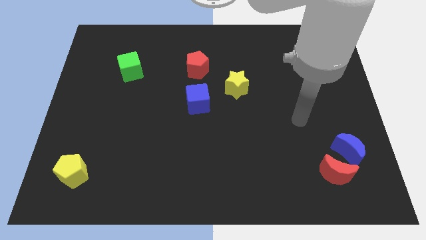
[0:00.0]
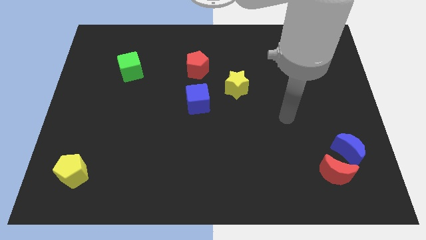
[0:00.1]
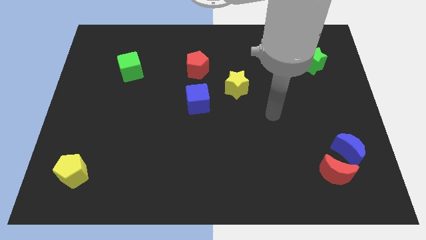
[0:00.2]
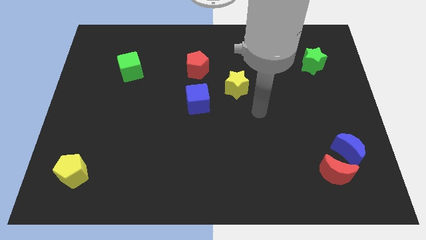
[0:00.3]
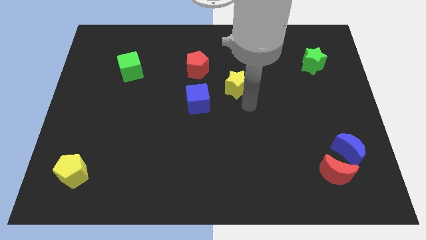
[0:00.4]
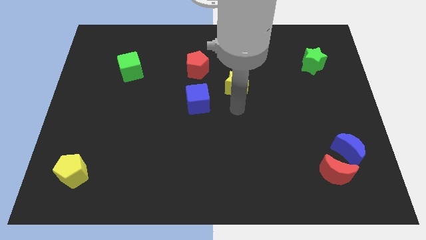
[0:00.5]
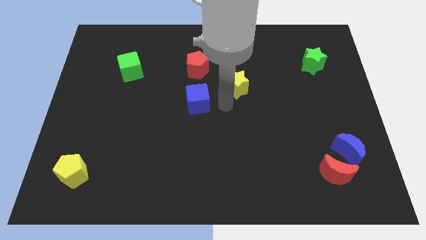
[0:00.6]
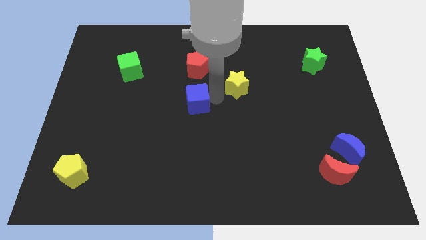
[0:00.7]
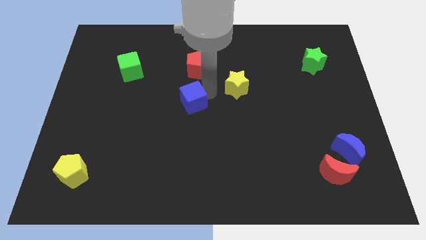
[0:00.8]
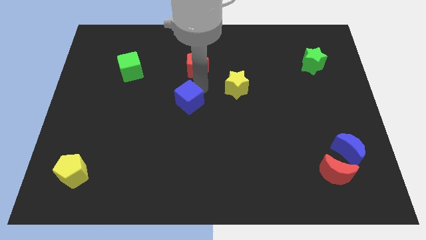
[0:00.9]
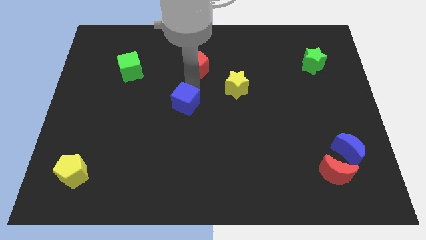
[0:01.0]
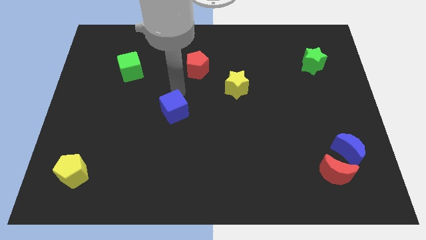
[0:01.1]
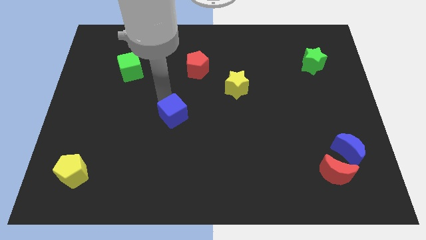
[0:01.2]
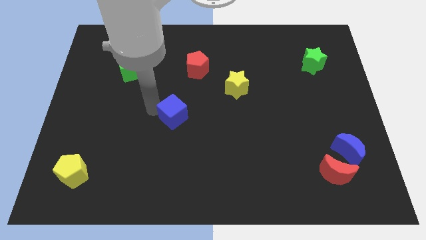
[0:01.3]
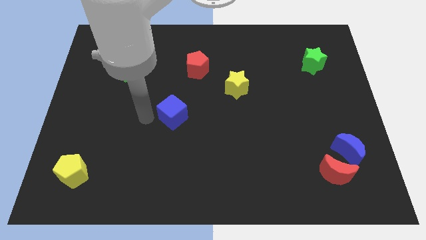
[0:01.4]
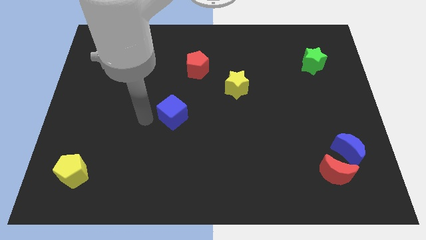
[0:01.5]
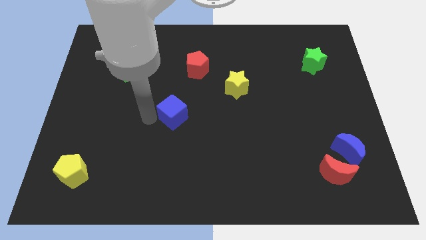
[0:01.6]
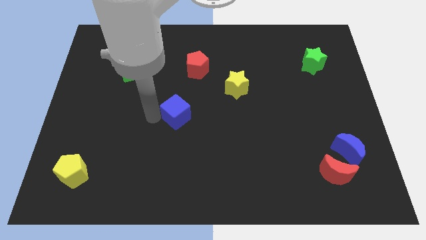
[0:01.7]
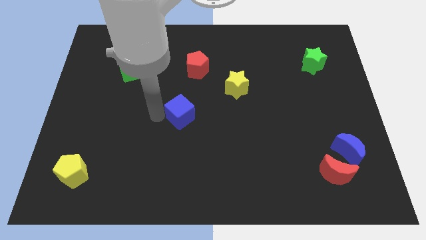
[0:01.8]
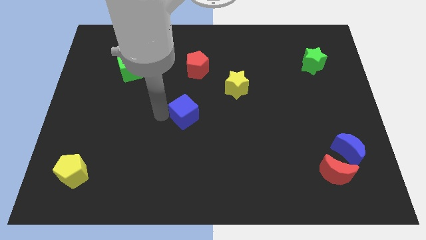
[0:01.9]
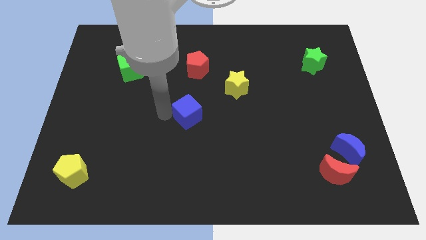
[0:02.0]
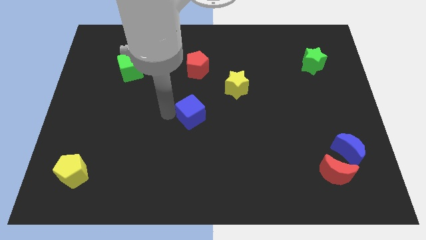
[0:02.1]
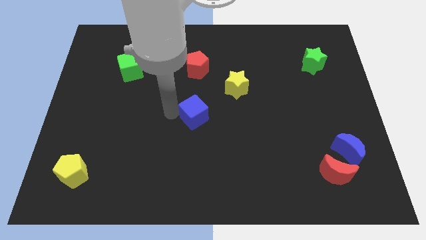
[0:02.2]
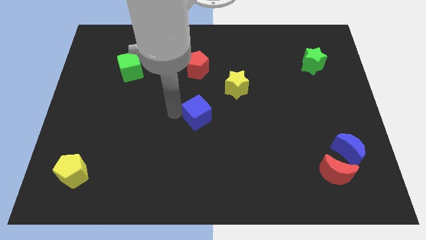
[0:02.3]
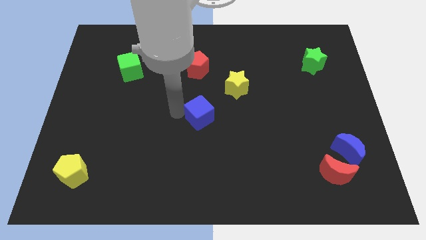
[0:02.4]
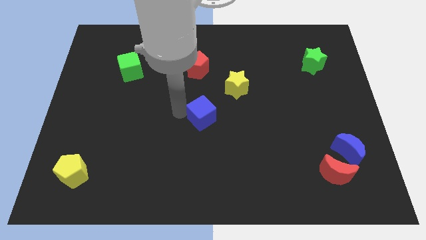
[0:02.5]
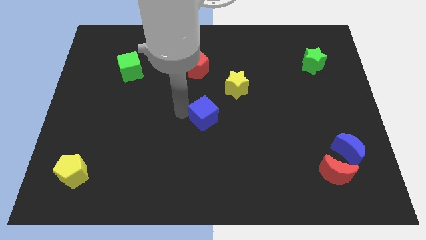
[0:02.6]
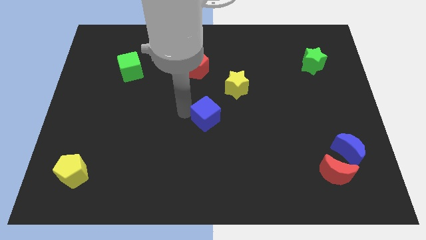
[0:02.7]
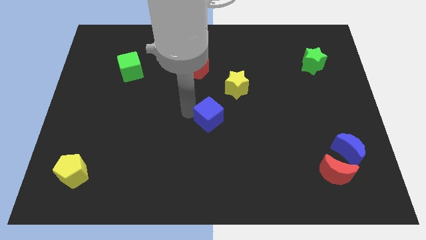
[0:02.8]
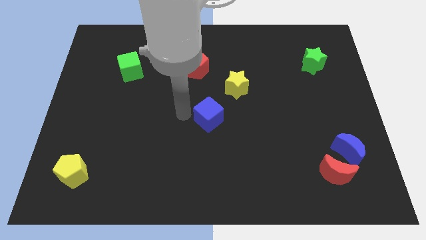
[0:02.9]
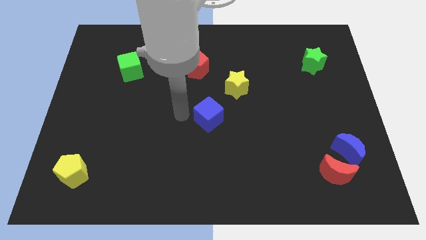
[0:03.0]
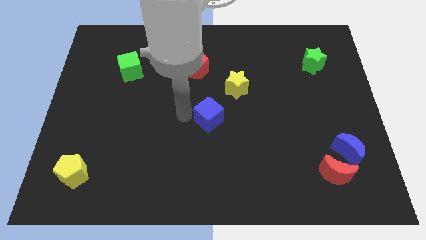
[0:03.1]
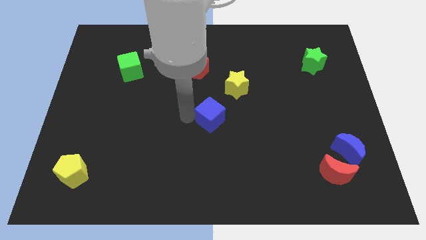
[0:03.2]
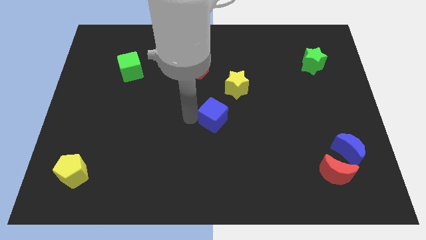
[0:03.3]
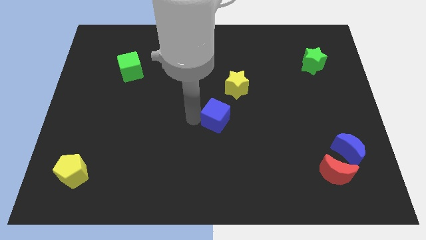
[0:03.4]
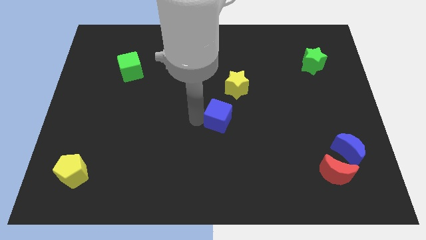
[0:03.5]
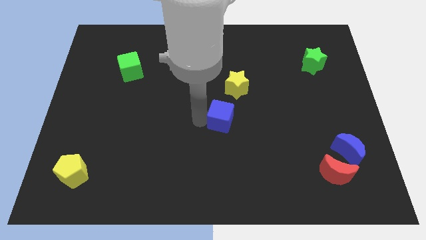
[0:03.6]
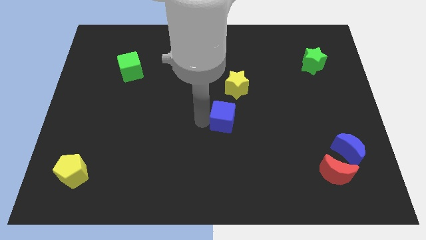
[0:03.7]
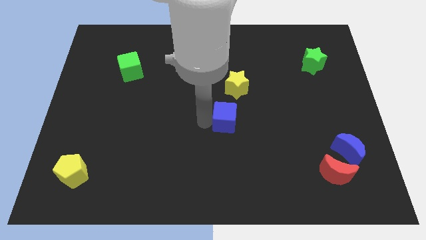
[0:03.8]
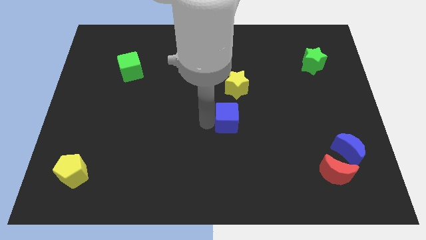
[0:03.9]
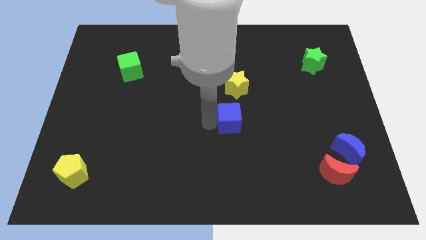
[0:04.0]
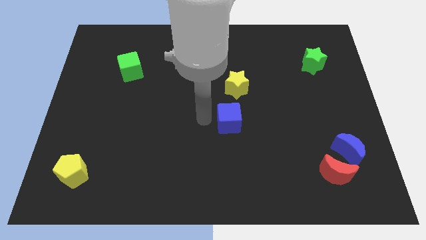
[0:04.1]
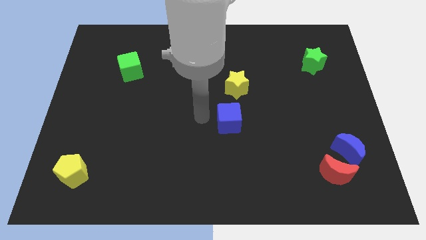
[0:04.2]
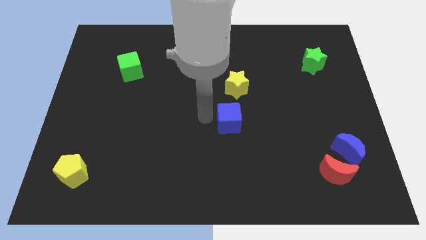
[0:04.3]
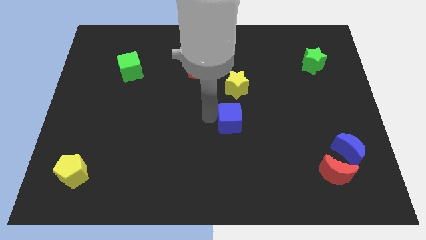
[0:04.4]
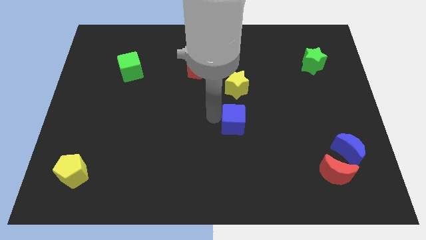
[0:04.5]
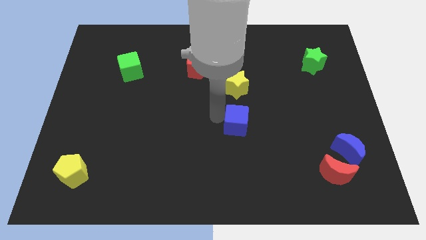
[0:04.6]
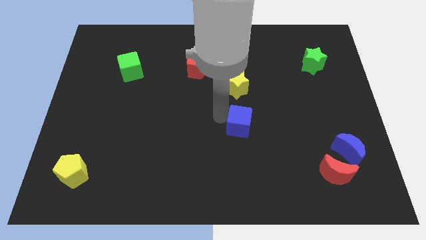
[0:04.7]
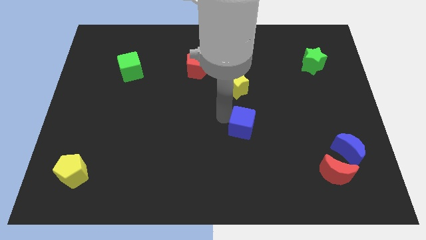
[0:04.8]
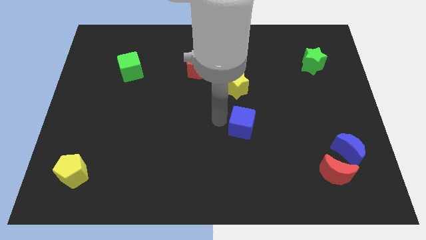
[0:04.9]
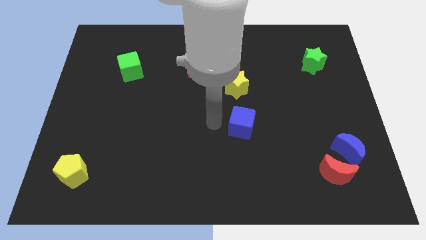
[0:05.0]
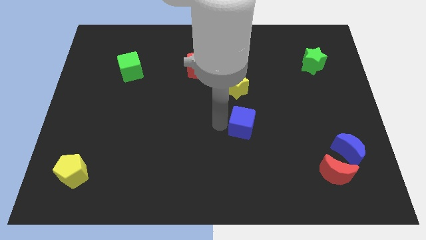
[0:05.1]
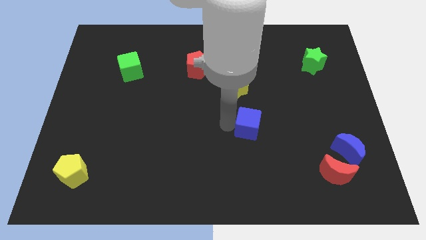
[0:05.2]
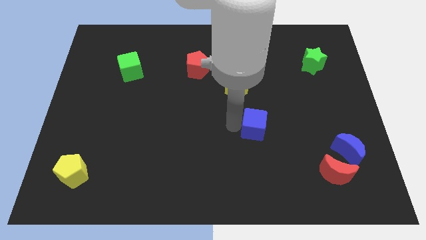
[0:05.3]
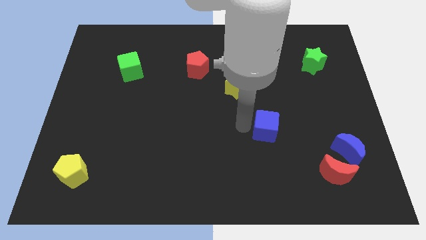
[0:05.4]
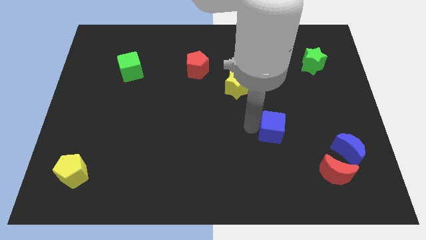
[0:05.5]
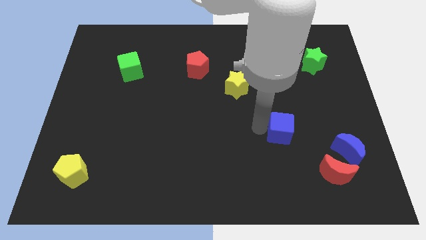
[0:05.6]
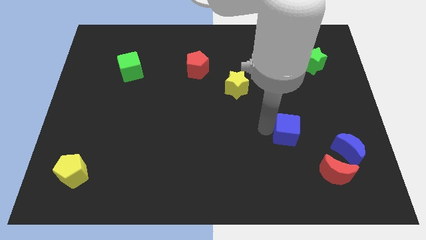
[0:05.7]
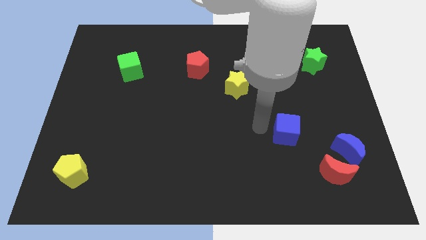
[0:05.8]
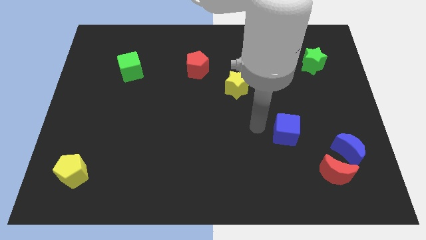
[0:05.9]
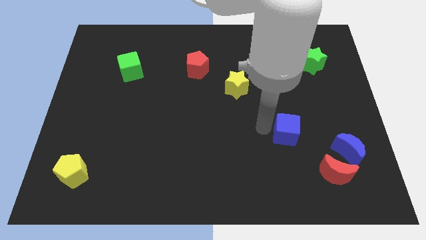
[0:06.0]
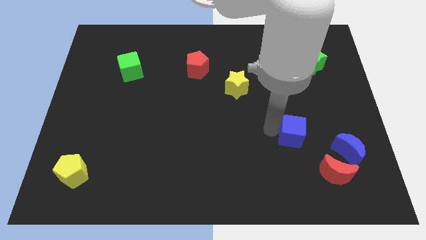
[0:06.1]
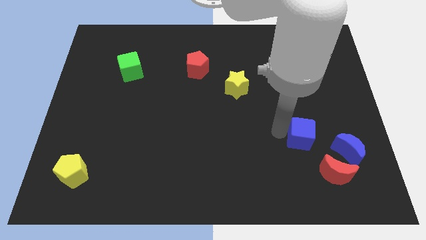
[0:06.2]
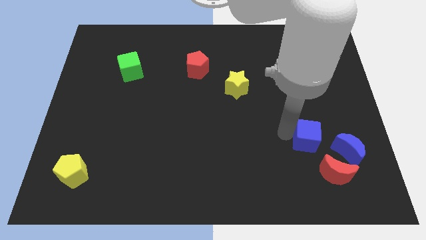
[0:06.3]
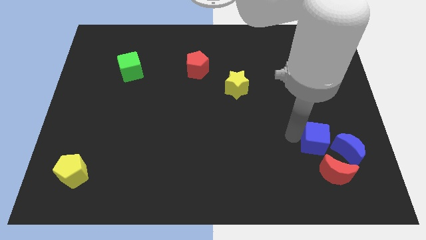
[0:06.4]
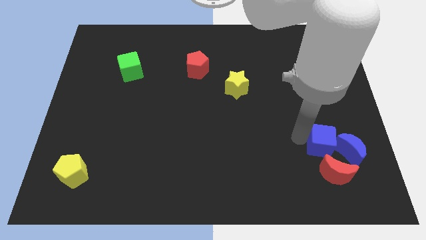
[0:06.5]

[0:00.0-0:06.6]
push the blue cube next to the blue moon

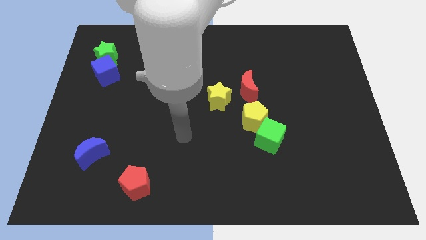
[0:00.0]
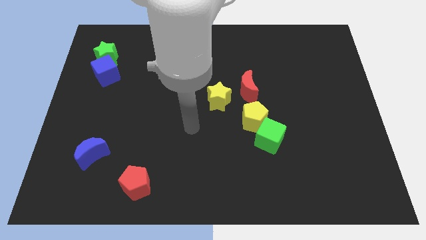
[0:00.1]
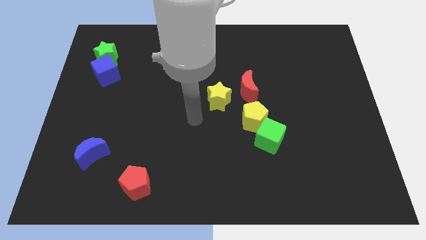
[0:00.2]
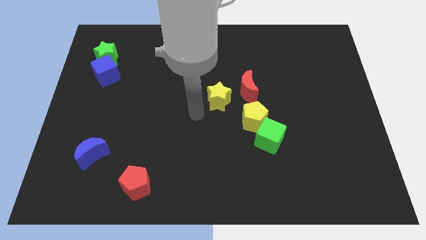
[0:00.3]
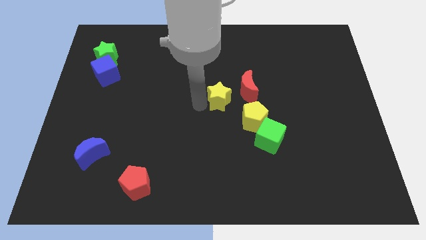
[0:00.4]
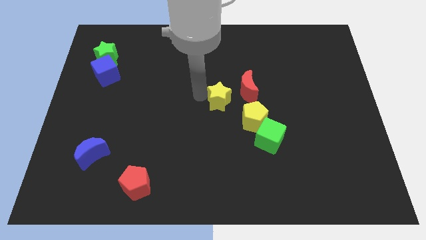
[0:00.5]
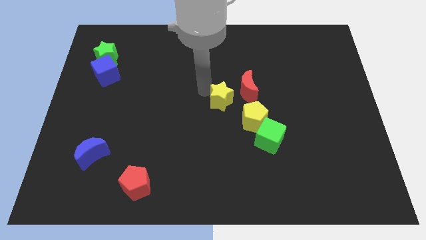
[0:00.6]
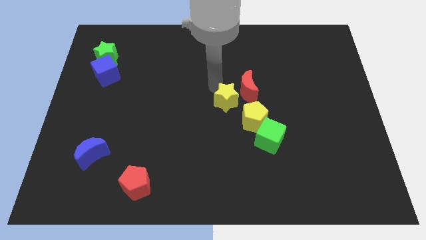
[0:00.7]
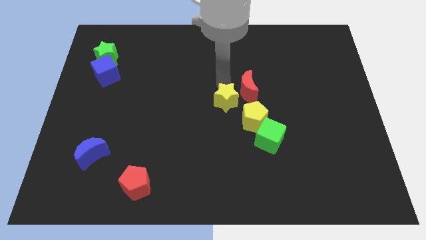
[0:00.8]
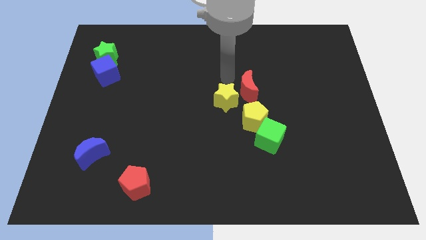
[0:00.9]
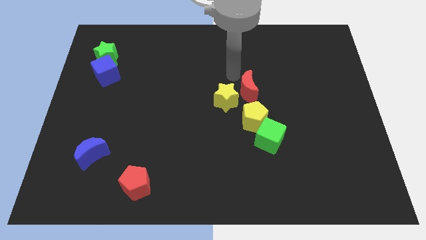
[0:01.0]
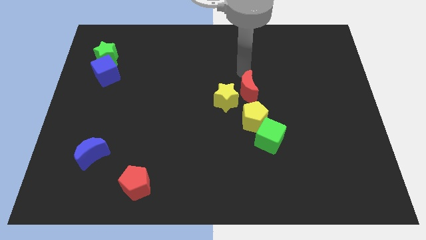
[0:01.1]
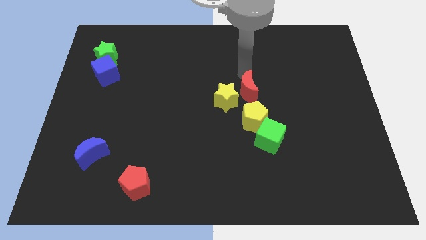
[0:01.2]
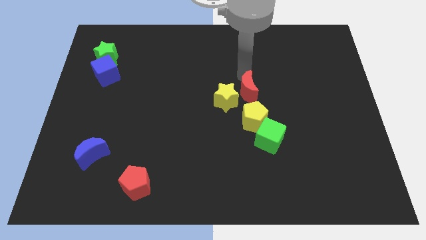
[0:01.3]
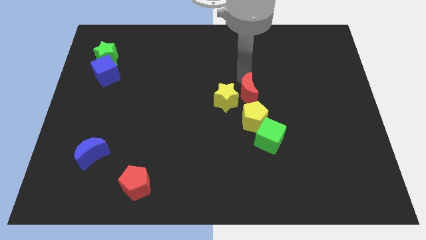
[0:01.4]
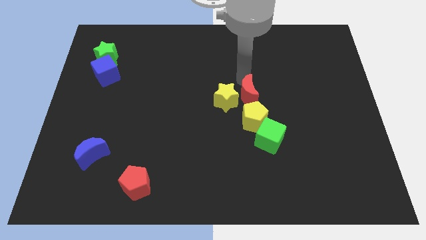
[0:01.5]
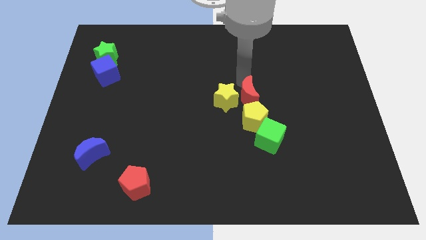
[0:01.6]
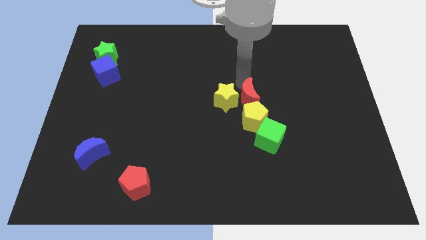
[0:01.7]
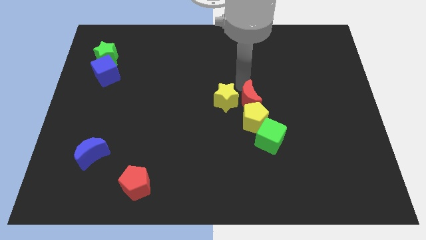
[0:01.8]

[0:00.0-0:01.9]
move the red moon to the yellow pentagon
